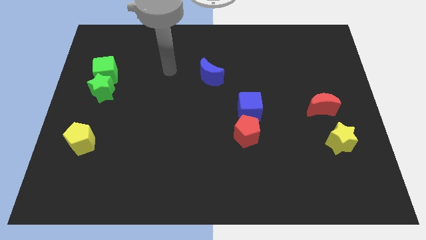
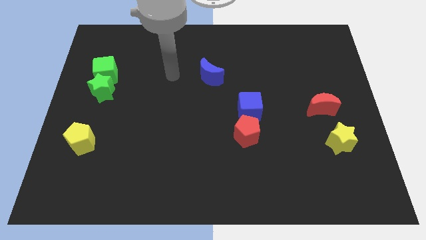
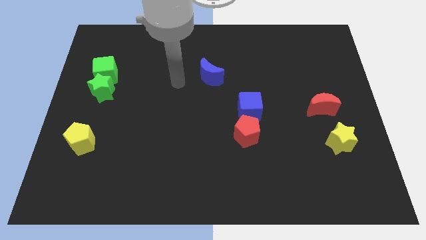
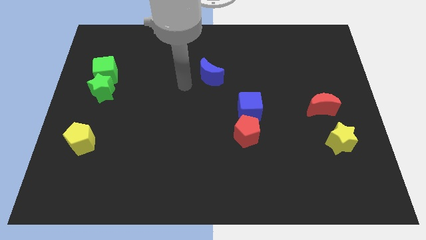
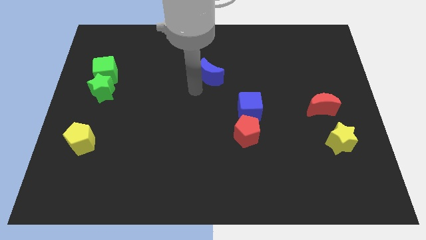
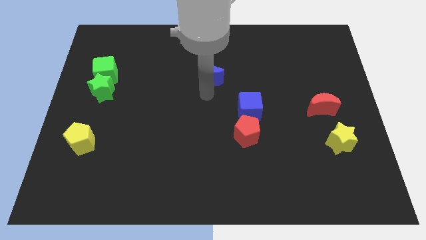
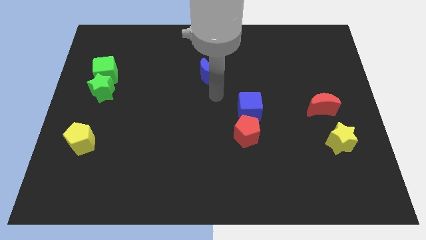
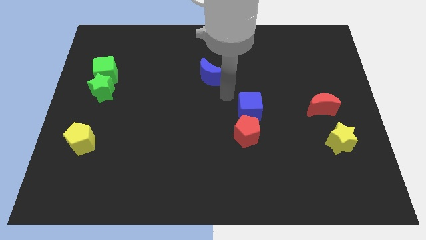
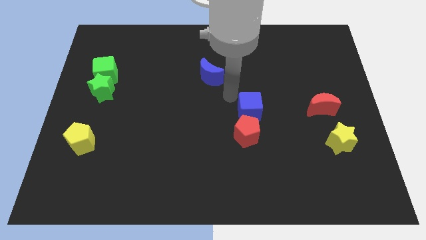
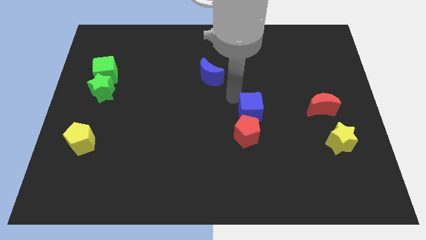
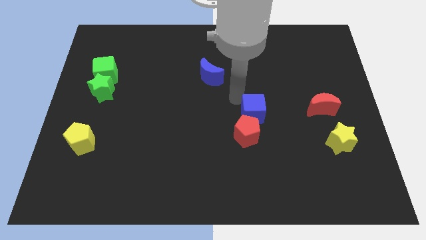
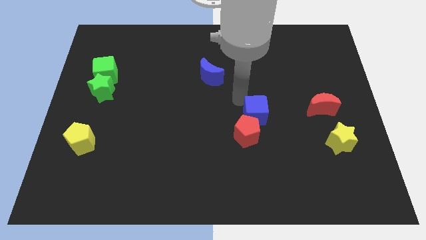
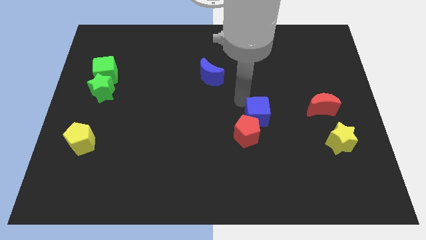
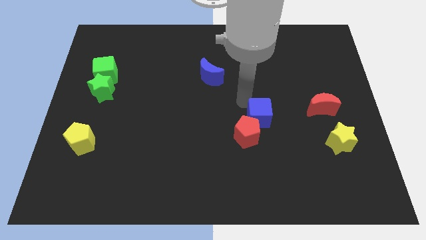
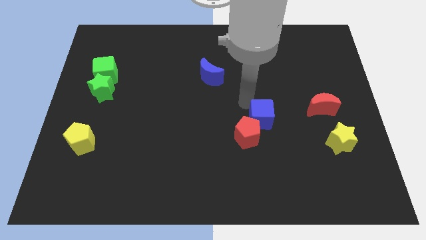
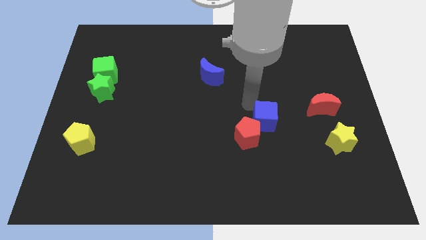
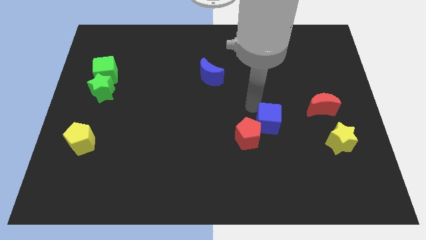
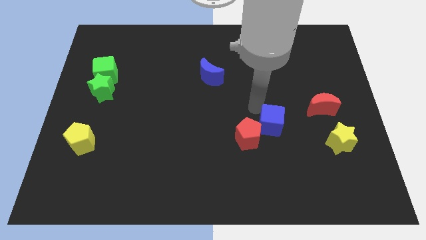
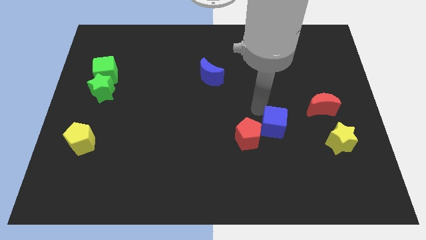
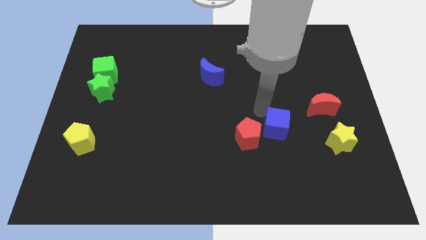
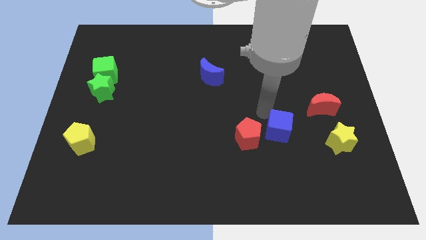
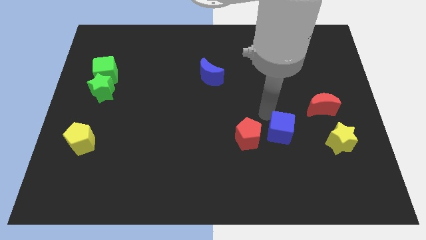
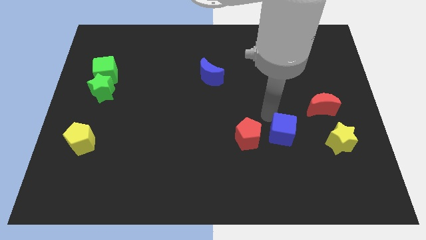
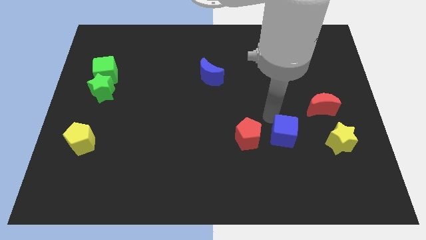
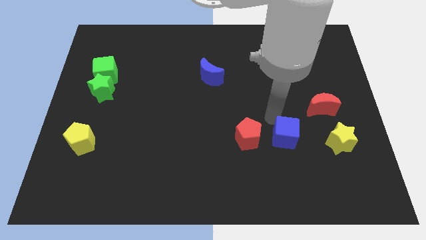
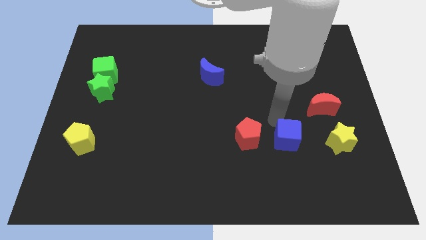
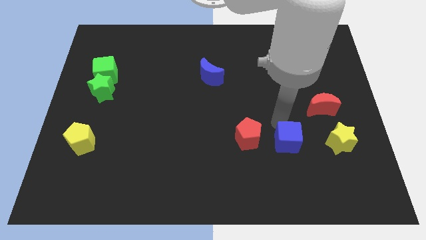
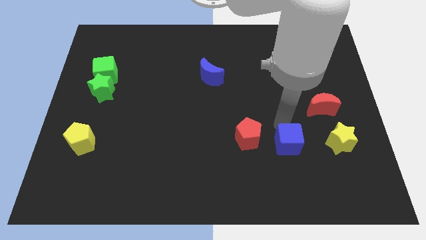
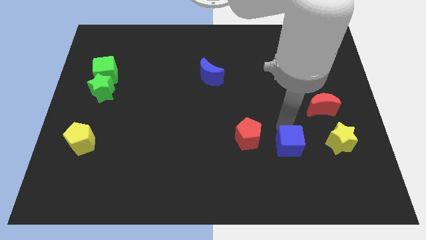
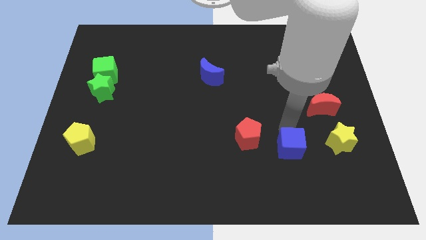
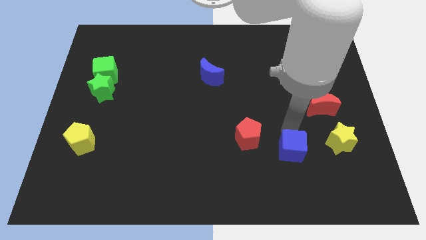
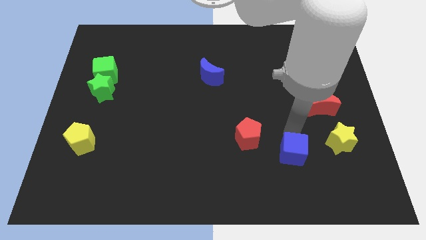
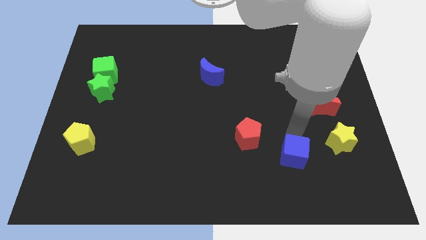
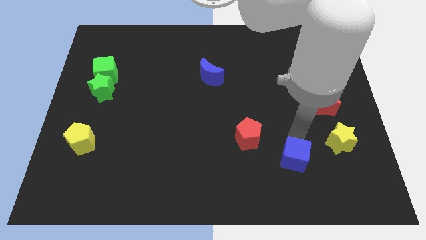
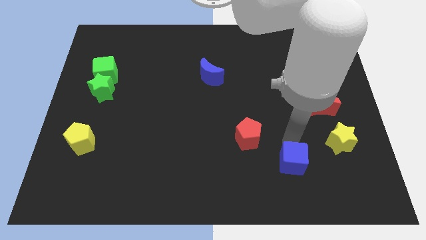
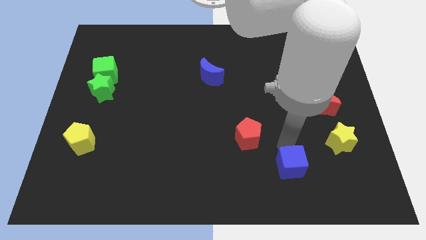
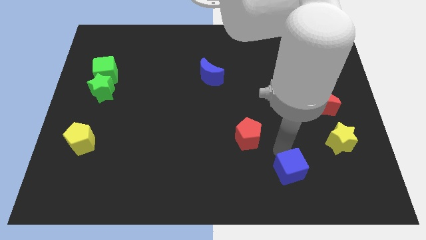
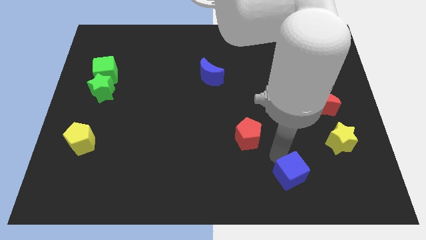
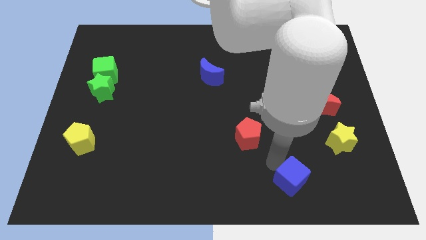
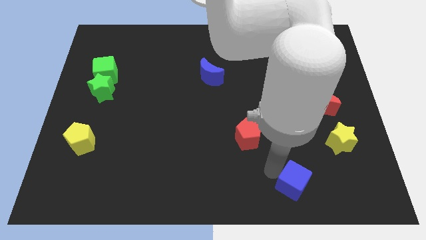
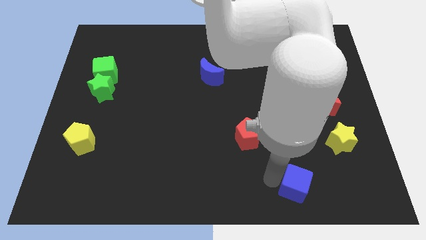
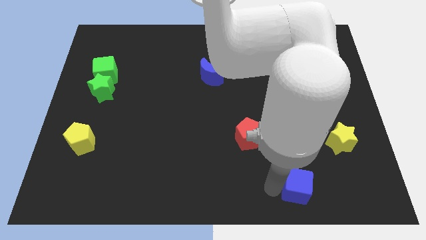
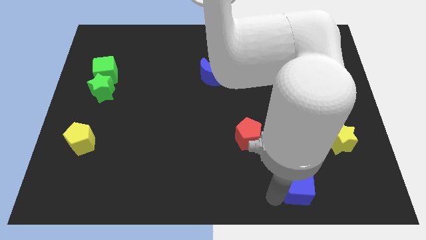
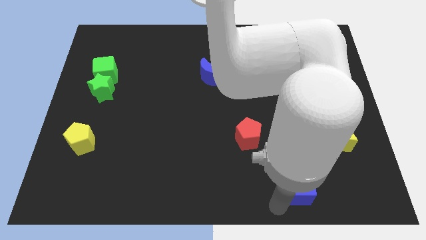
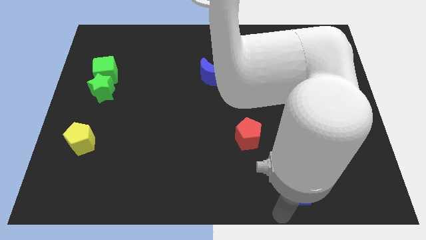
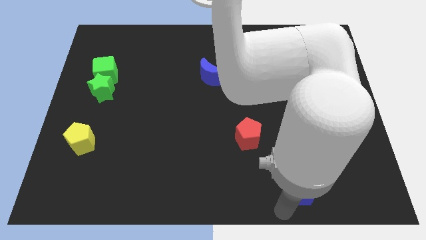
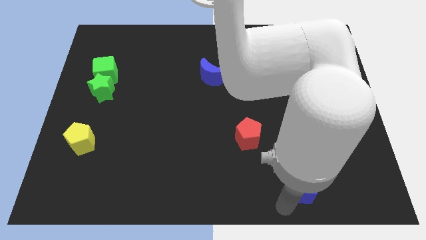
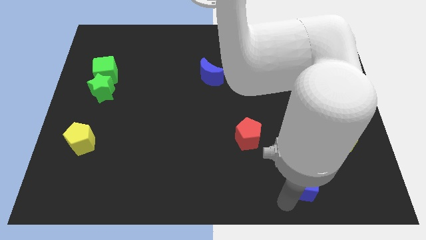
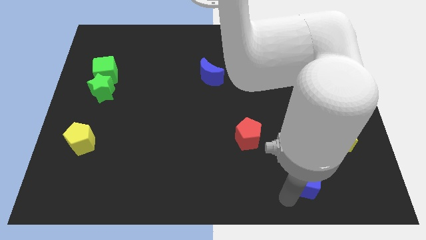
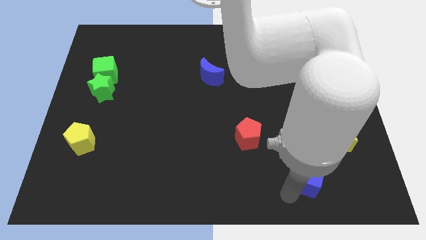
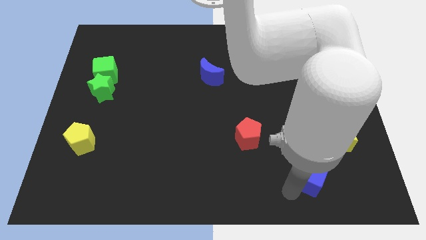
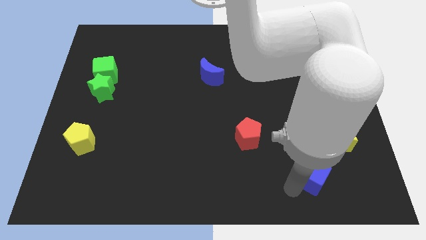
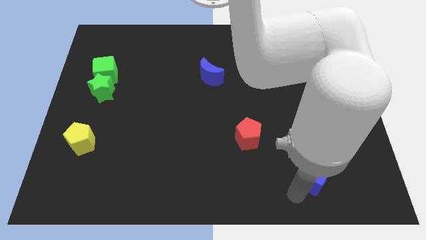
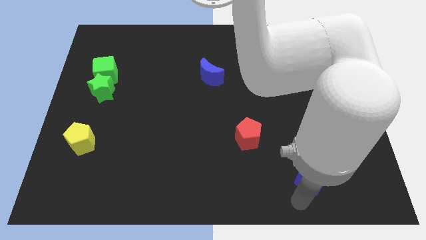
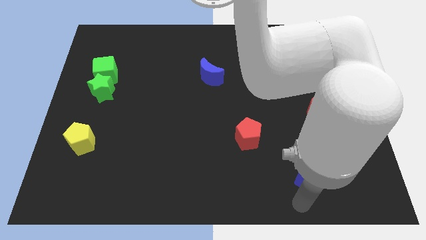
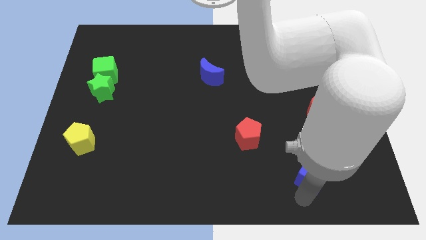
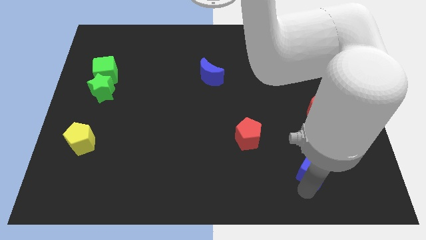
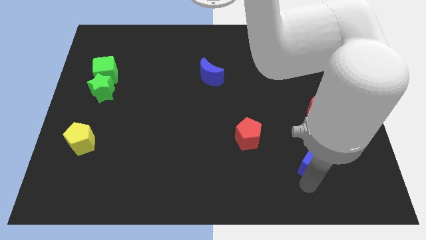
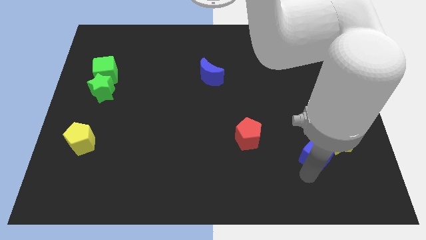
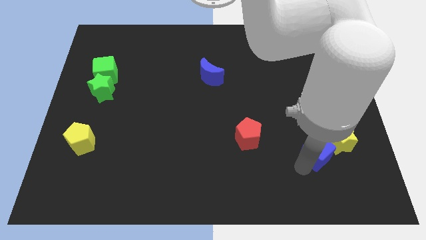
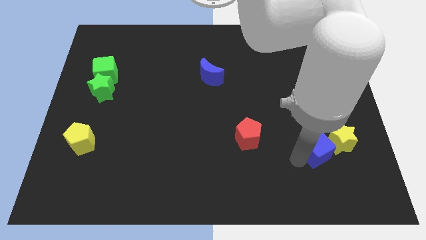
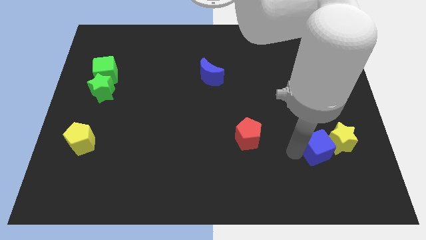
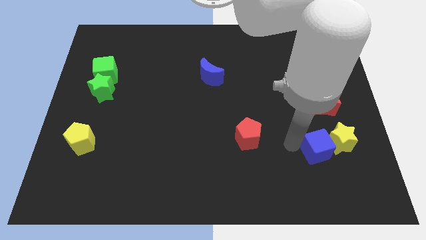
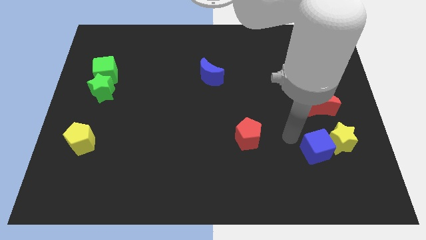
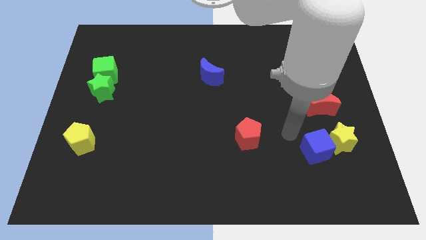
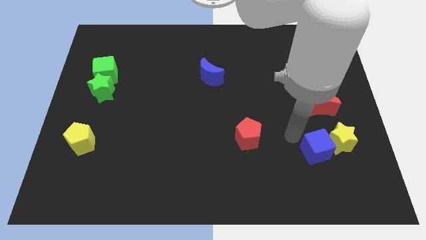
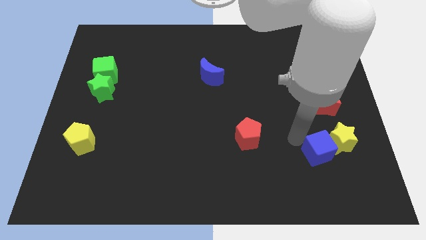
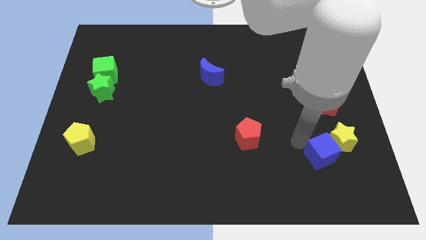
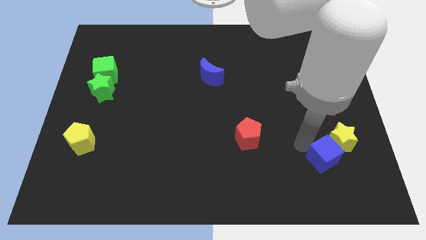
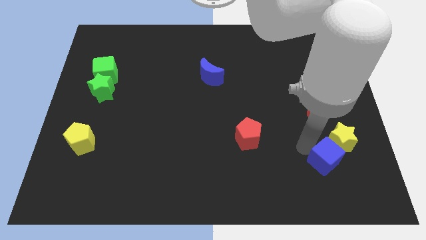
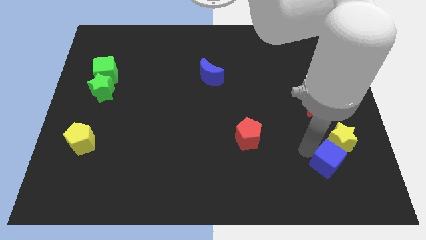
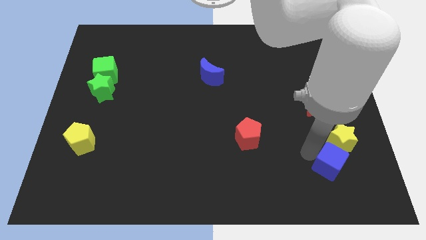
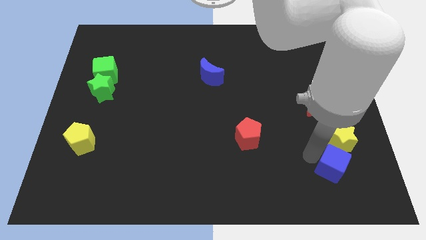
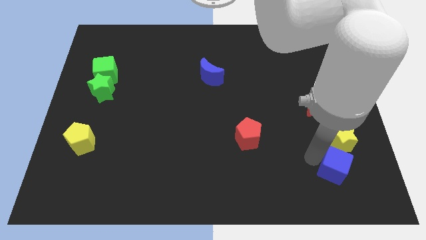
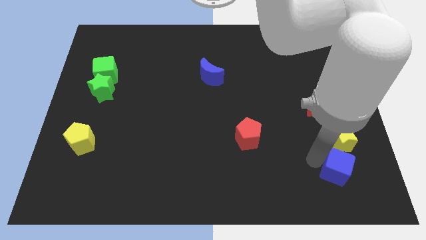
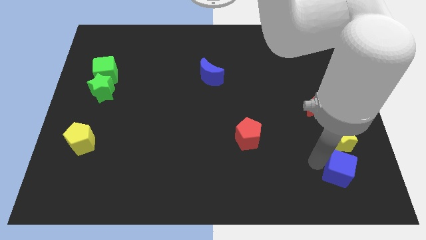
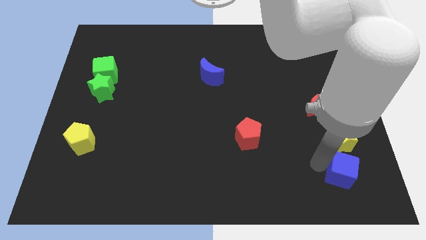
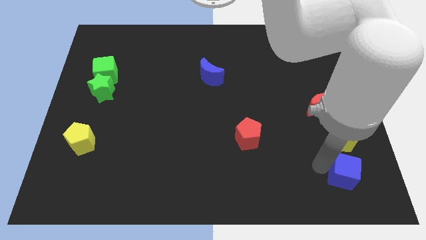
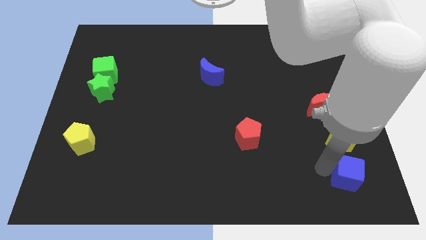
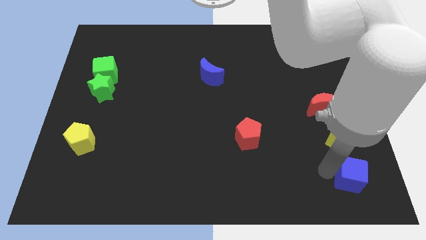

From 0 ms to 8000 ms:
put the blue cube to the bottom right of the board
